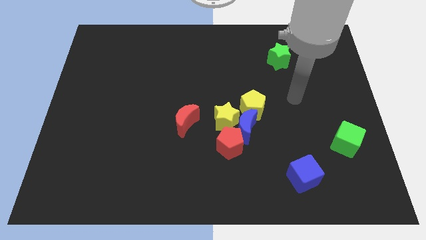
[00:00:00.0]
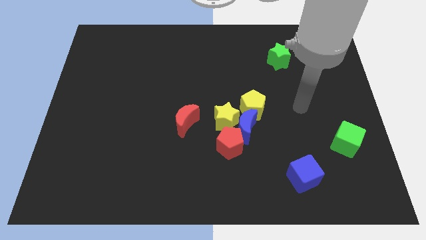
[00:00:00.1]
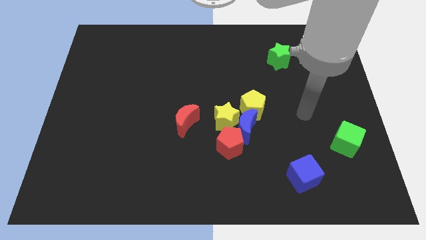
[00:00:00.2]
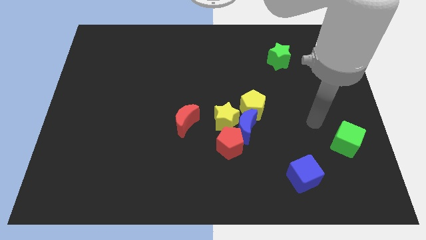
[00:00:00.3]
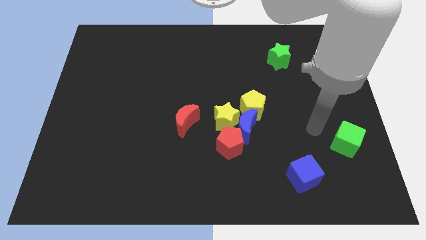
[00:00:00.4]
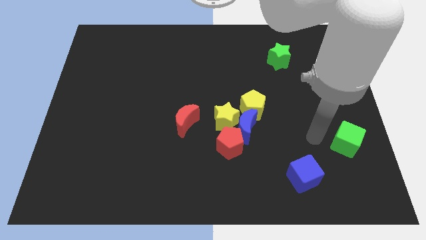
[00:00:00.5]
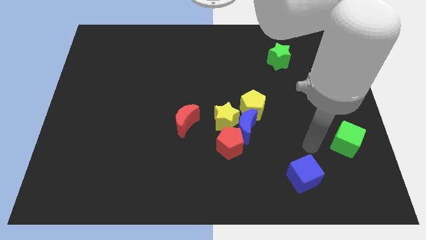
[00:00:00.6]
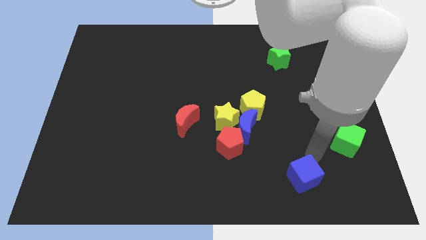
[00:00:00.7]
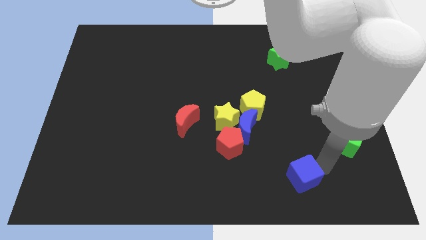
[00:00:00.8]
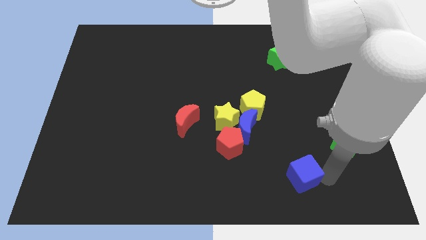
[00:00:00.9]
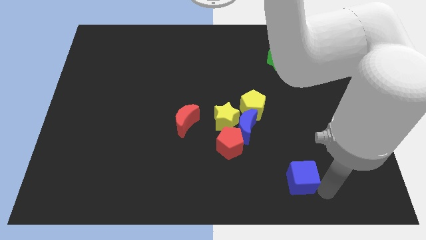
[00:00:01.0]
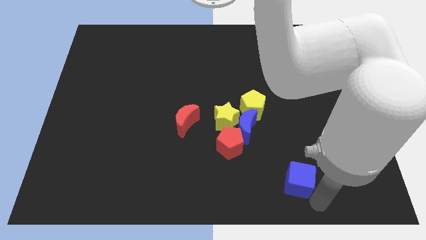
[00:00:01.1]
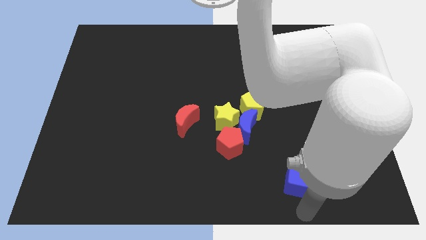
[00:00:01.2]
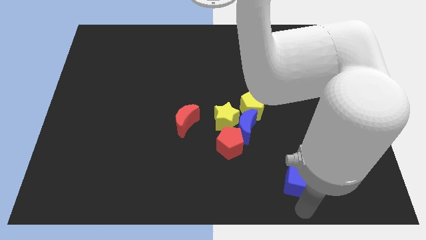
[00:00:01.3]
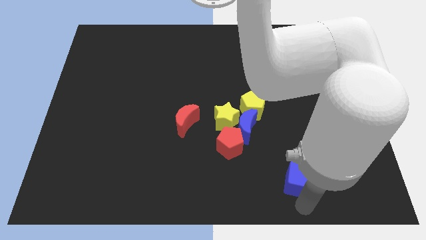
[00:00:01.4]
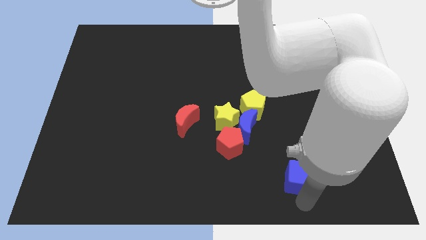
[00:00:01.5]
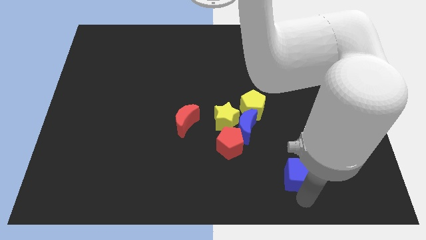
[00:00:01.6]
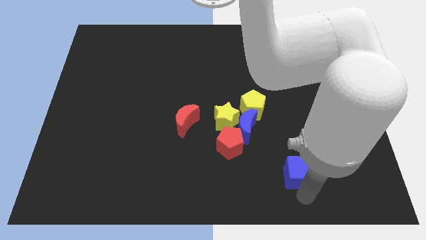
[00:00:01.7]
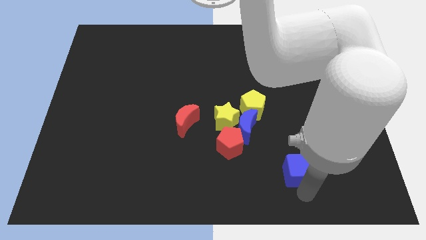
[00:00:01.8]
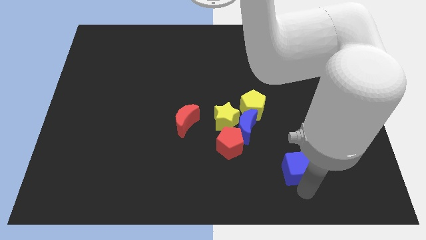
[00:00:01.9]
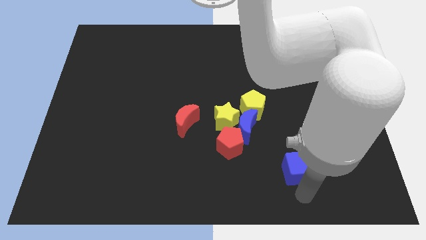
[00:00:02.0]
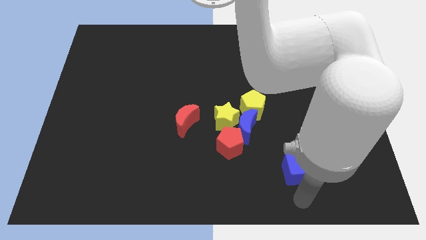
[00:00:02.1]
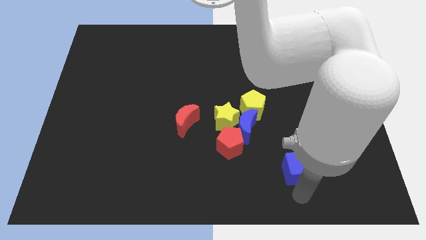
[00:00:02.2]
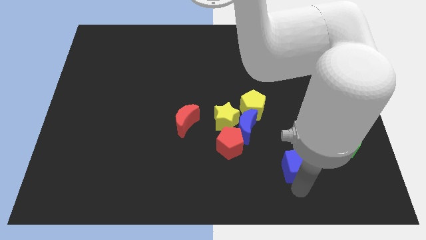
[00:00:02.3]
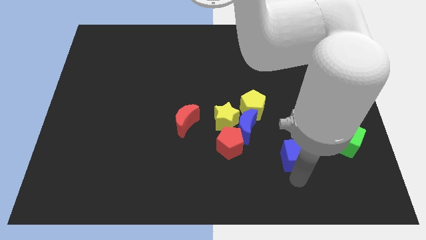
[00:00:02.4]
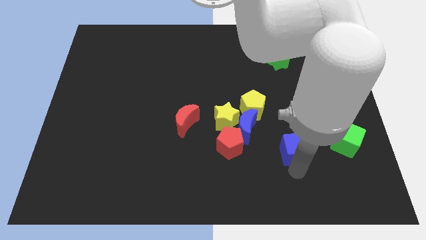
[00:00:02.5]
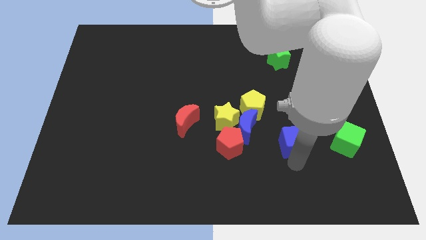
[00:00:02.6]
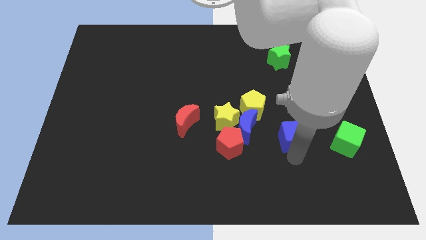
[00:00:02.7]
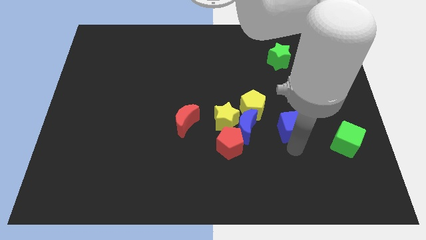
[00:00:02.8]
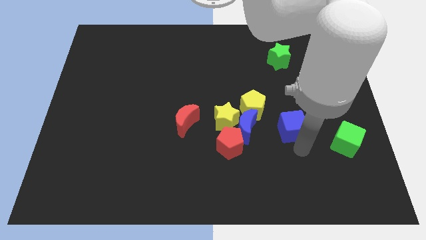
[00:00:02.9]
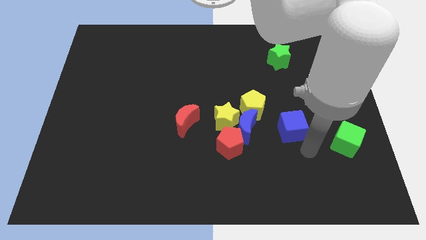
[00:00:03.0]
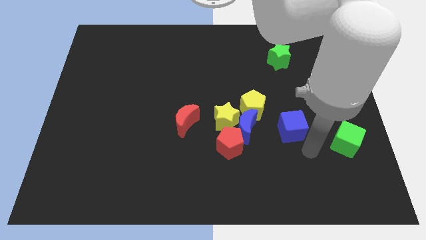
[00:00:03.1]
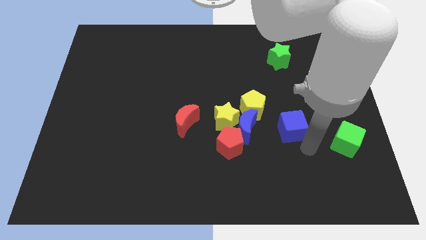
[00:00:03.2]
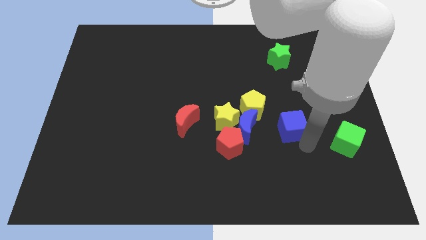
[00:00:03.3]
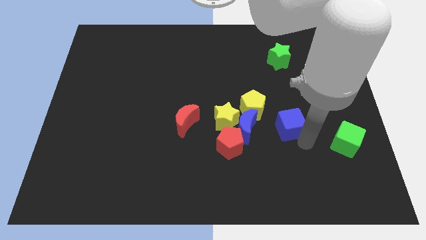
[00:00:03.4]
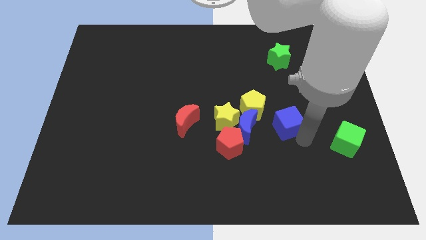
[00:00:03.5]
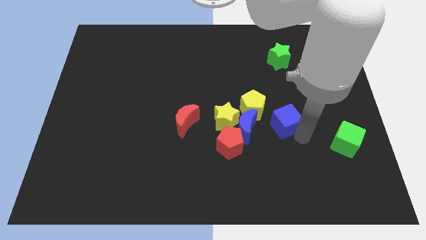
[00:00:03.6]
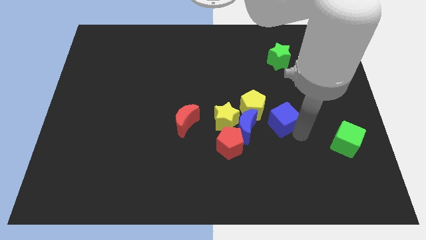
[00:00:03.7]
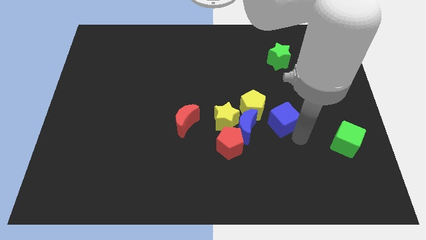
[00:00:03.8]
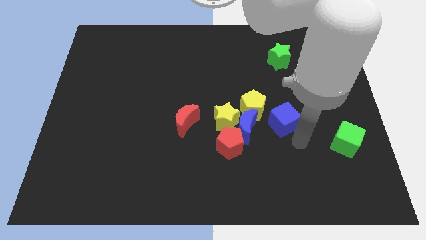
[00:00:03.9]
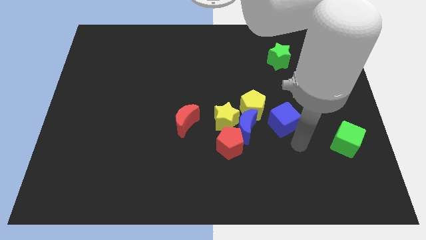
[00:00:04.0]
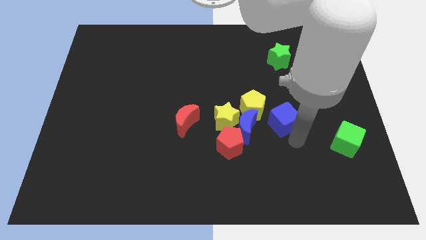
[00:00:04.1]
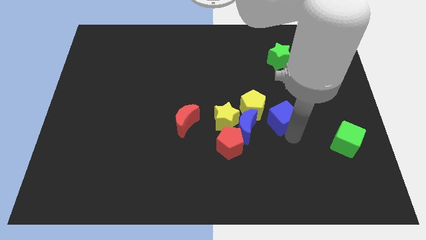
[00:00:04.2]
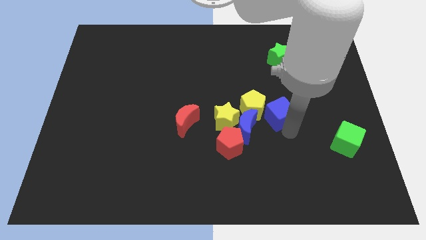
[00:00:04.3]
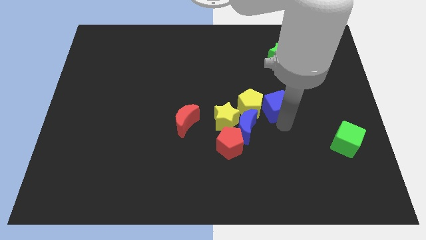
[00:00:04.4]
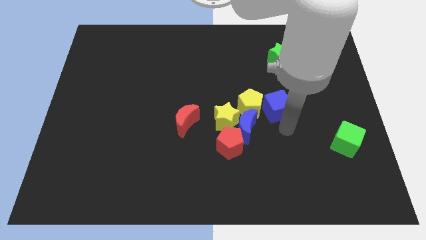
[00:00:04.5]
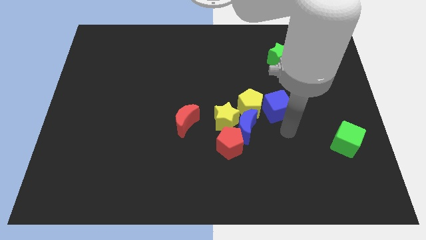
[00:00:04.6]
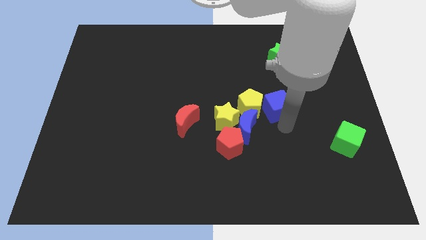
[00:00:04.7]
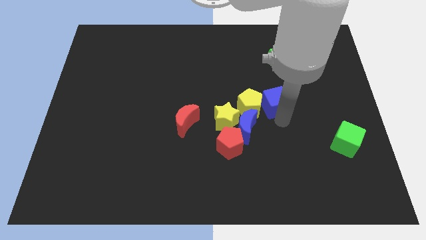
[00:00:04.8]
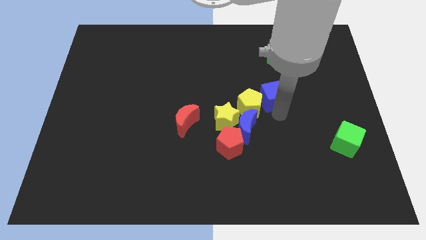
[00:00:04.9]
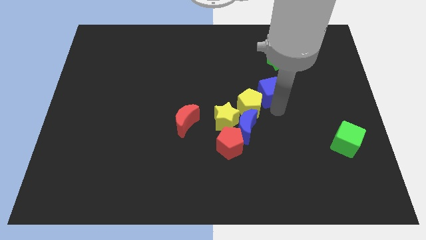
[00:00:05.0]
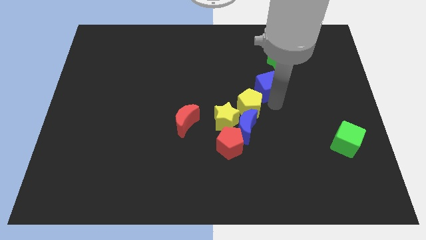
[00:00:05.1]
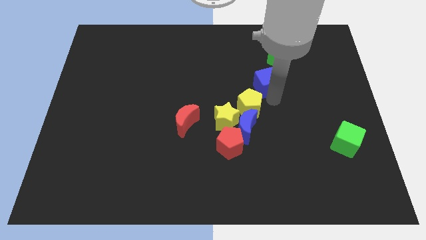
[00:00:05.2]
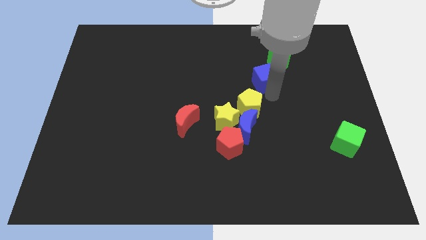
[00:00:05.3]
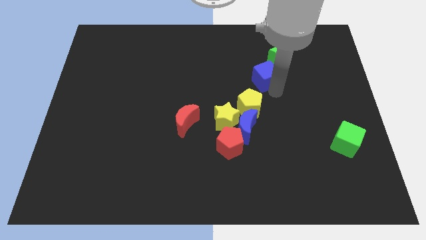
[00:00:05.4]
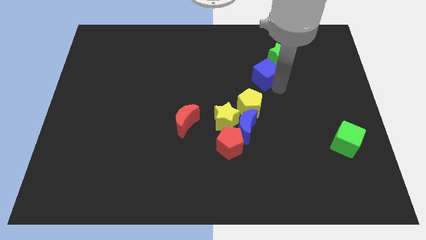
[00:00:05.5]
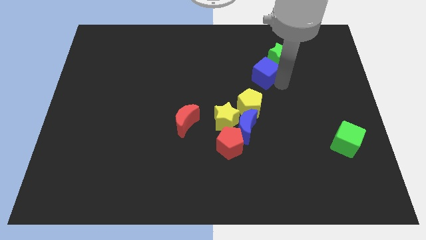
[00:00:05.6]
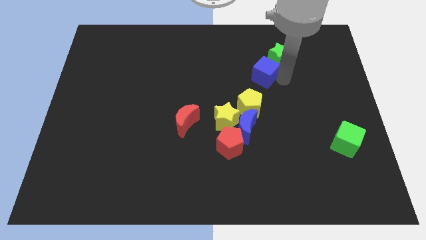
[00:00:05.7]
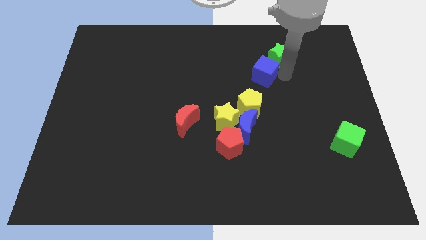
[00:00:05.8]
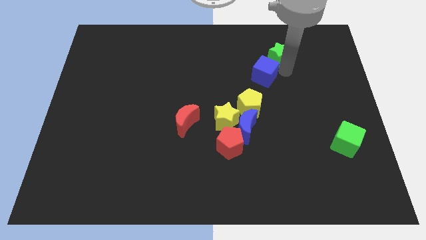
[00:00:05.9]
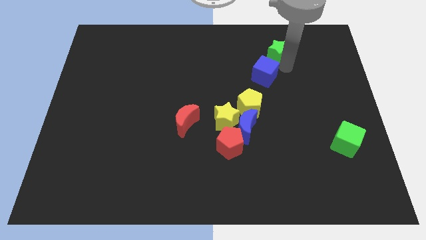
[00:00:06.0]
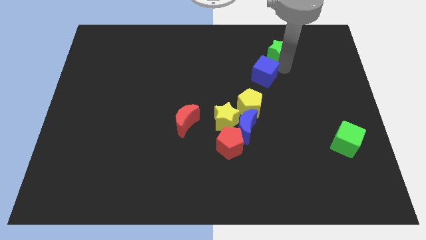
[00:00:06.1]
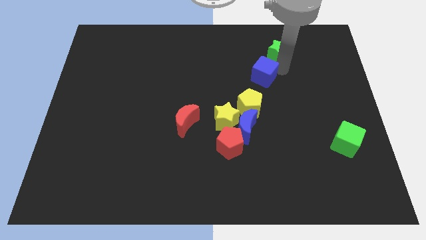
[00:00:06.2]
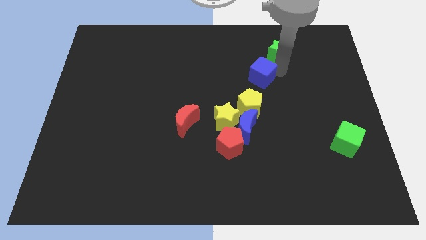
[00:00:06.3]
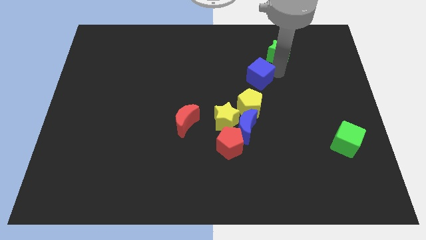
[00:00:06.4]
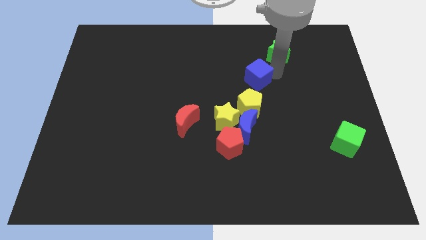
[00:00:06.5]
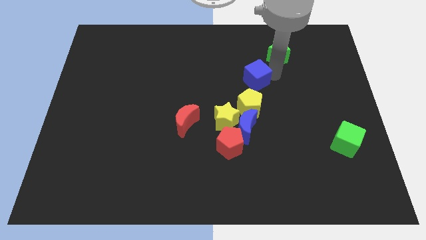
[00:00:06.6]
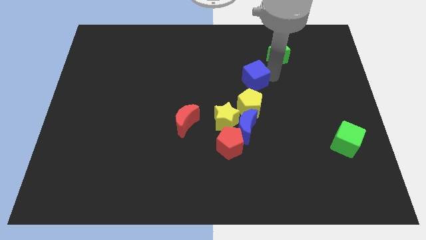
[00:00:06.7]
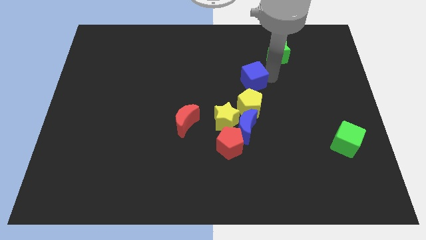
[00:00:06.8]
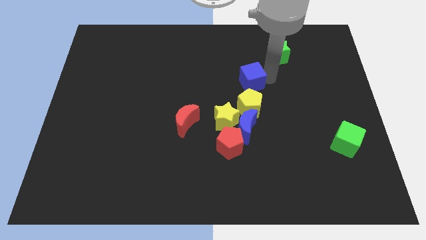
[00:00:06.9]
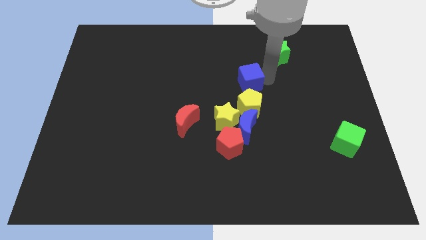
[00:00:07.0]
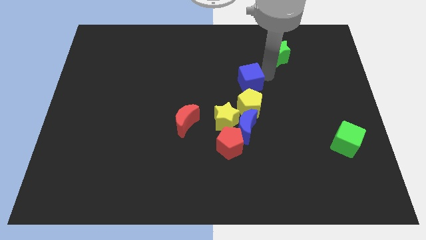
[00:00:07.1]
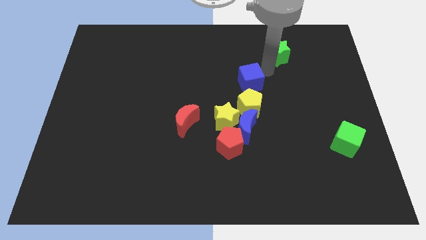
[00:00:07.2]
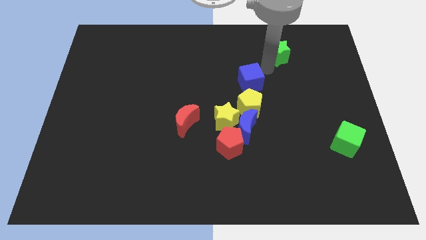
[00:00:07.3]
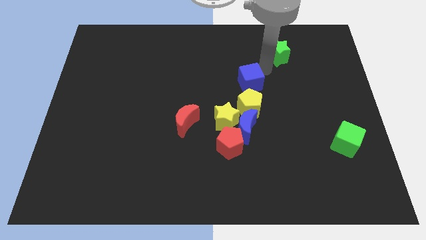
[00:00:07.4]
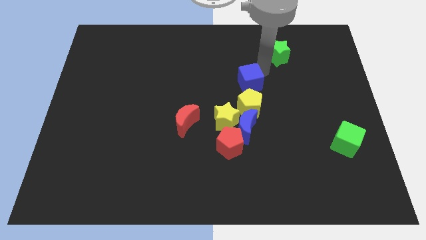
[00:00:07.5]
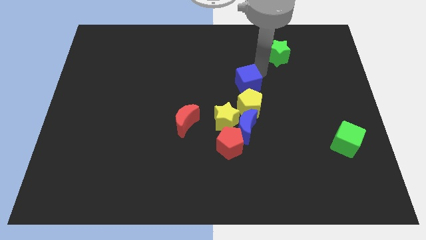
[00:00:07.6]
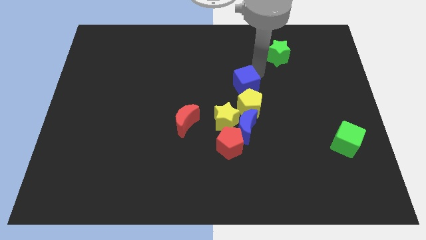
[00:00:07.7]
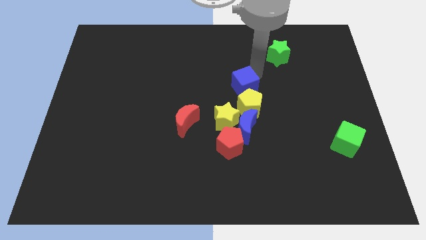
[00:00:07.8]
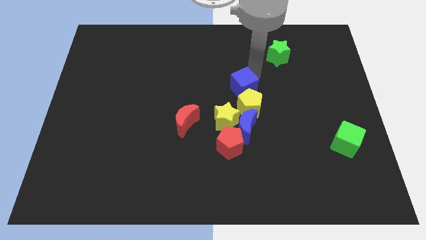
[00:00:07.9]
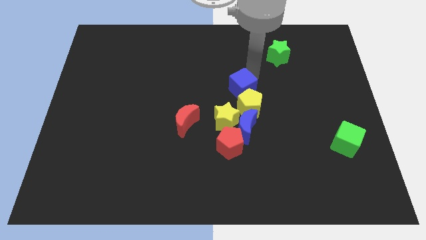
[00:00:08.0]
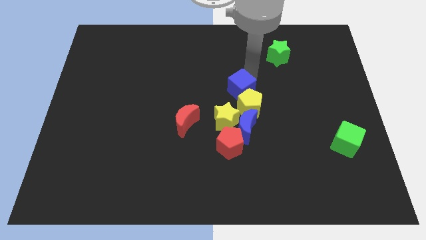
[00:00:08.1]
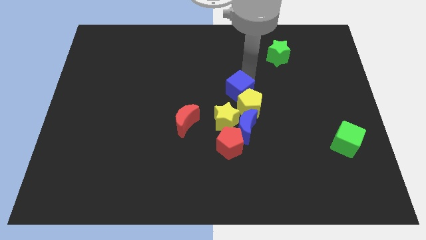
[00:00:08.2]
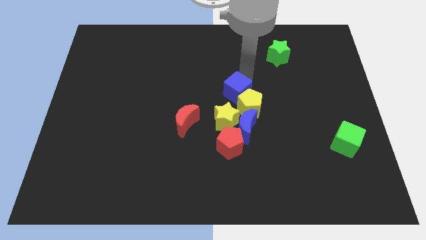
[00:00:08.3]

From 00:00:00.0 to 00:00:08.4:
slide the blue cube above the red pentagon
